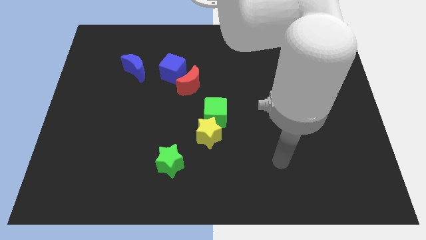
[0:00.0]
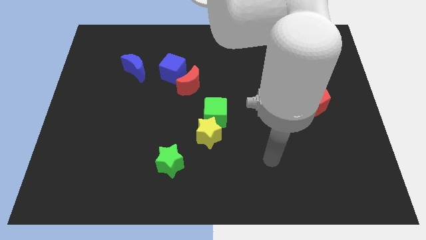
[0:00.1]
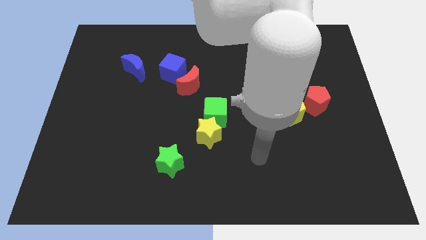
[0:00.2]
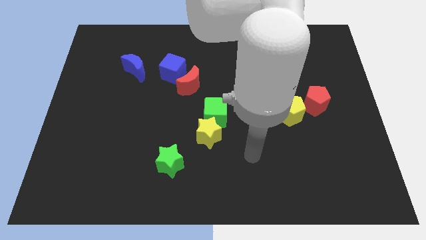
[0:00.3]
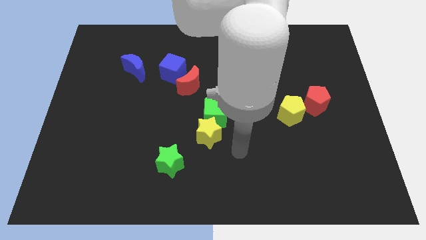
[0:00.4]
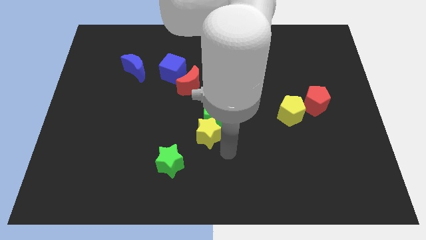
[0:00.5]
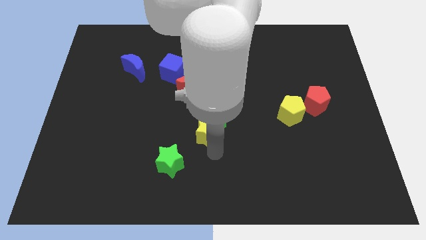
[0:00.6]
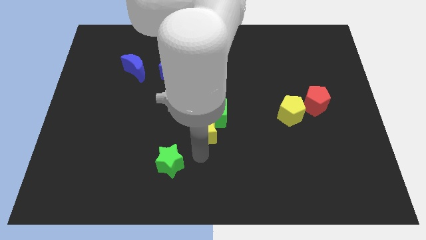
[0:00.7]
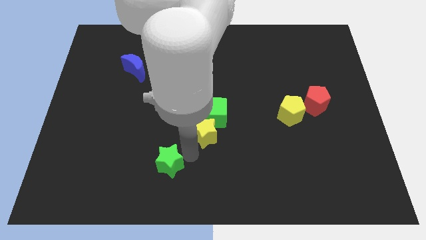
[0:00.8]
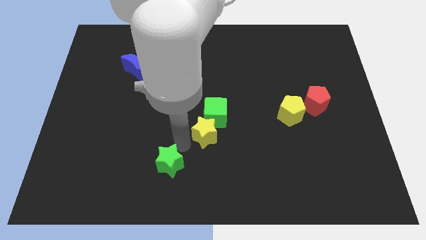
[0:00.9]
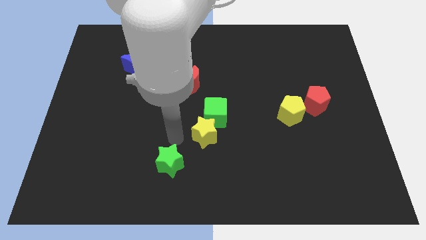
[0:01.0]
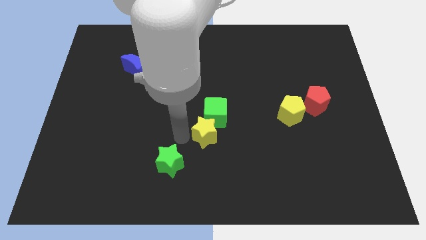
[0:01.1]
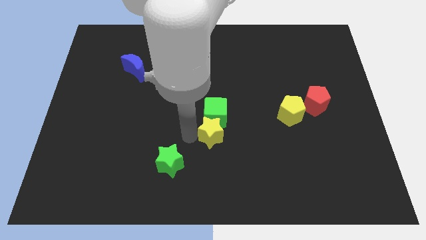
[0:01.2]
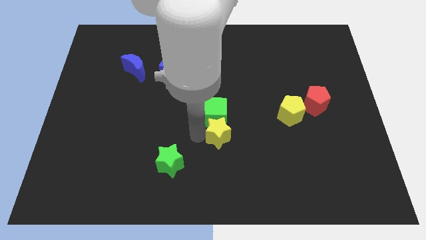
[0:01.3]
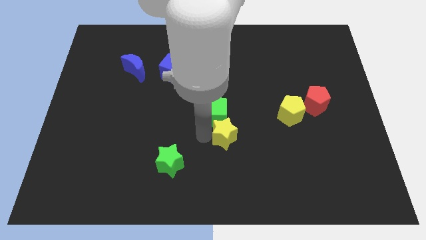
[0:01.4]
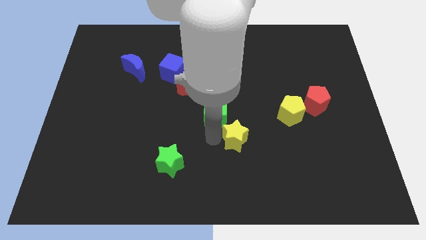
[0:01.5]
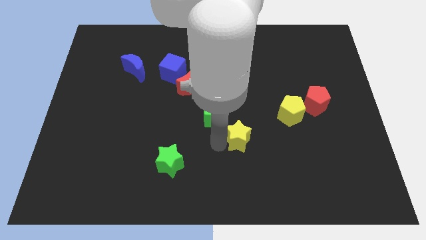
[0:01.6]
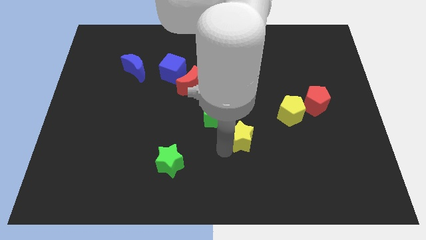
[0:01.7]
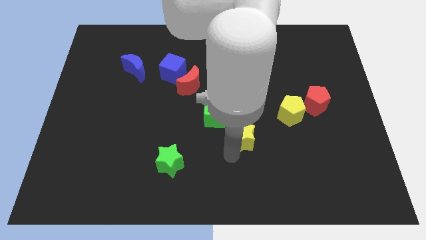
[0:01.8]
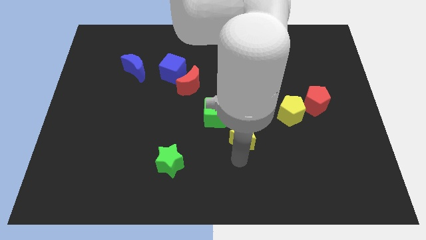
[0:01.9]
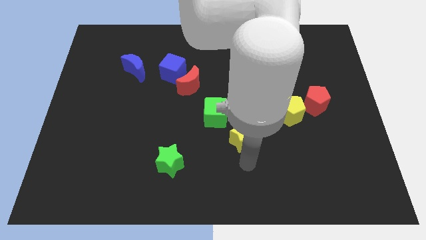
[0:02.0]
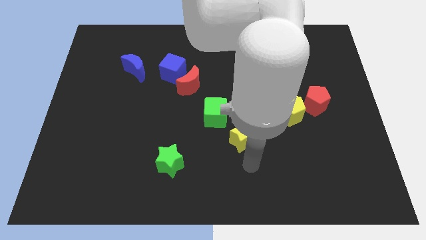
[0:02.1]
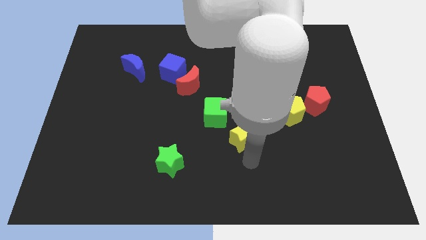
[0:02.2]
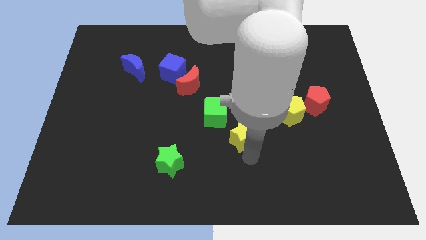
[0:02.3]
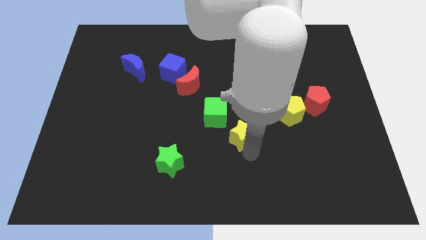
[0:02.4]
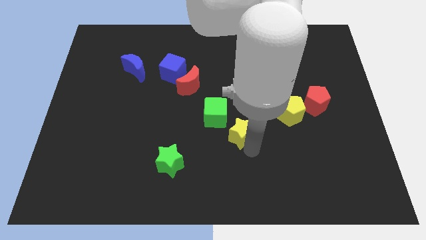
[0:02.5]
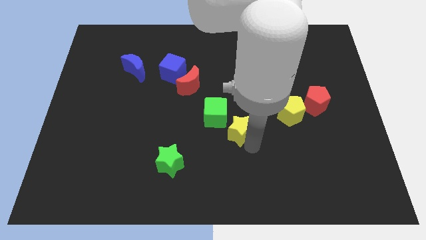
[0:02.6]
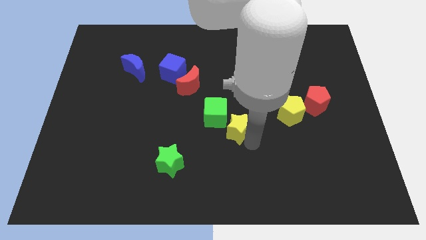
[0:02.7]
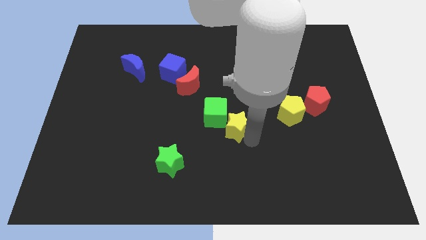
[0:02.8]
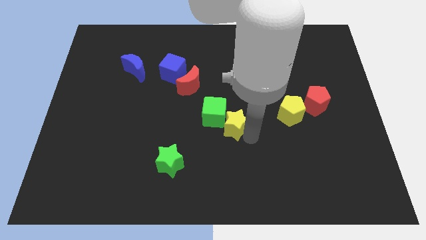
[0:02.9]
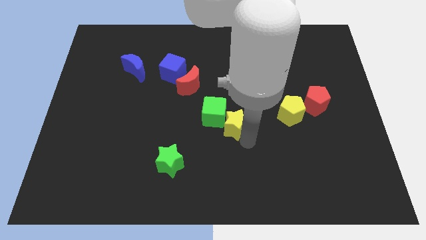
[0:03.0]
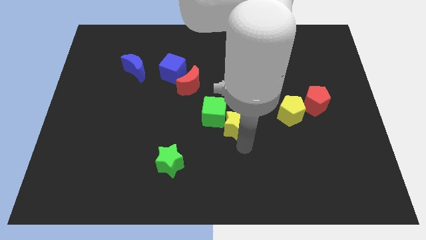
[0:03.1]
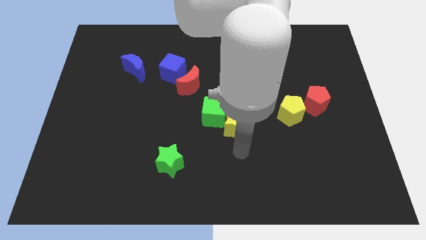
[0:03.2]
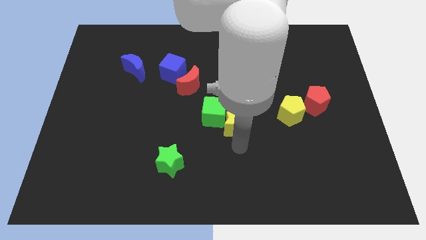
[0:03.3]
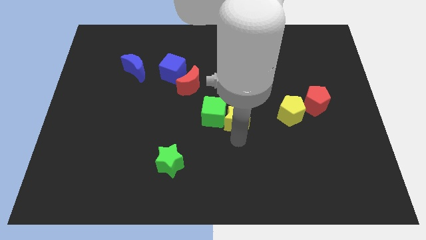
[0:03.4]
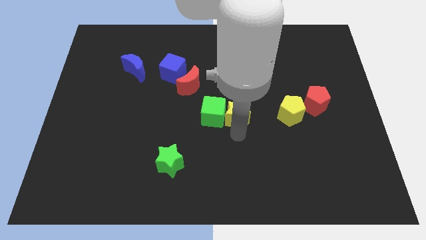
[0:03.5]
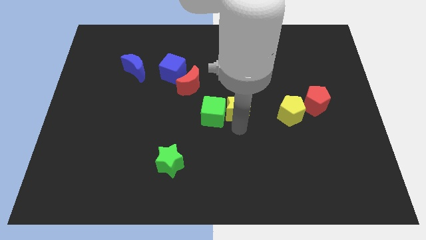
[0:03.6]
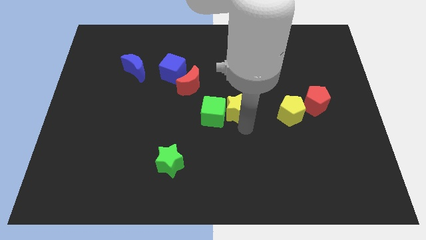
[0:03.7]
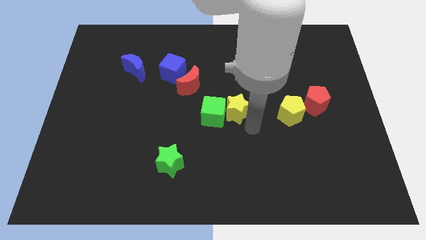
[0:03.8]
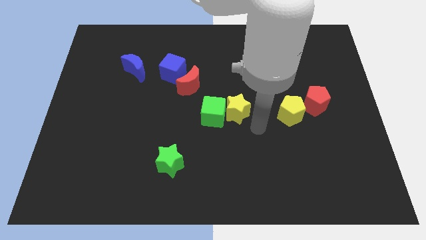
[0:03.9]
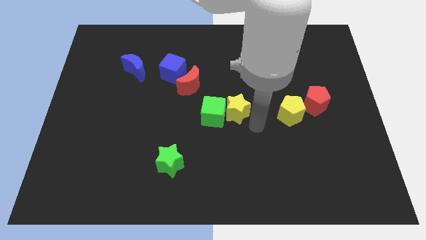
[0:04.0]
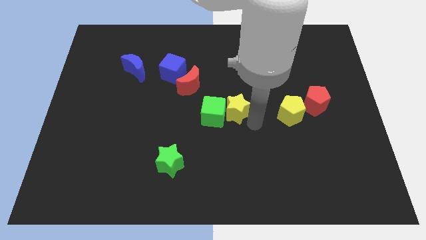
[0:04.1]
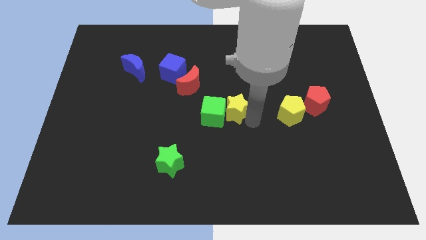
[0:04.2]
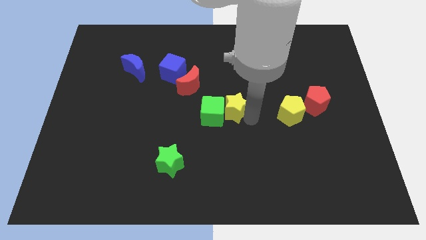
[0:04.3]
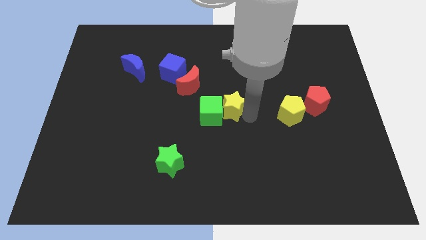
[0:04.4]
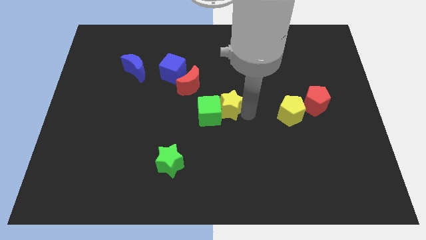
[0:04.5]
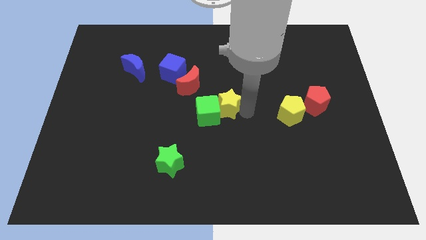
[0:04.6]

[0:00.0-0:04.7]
slightly push the yellow star upwards

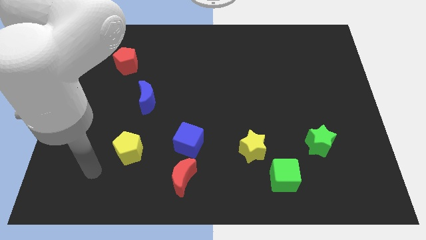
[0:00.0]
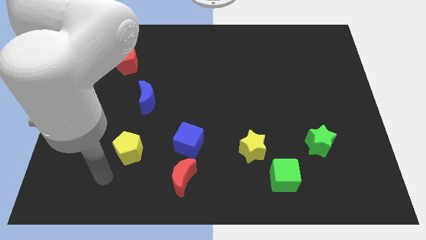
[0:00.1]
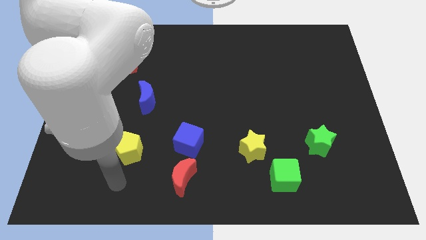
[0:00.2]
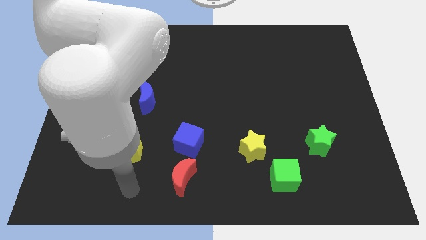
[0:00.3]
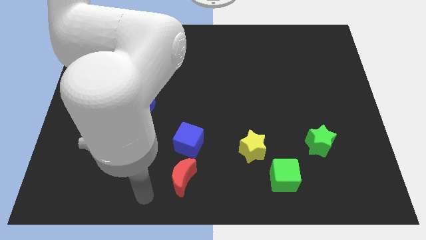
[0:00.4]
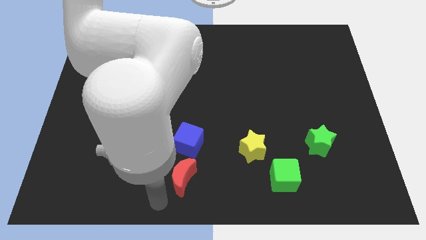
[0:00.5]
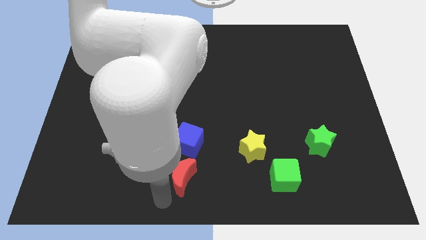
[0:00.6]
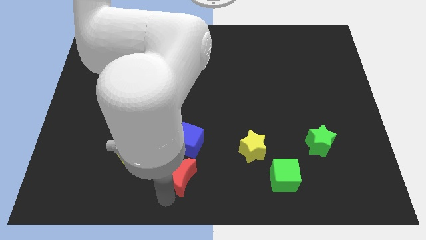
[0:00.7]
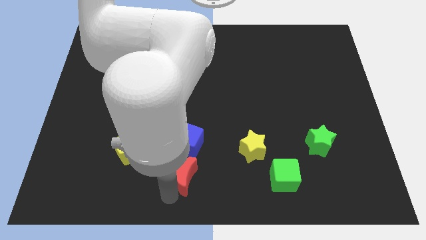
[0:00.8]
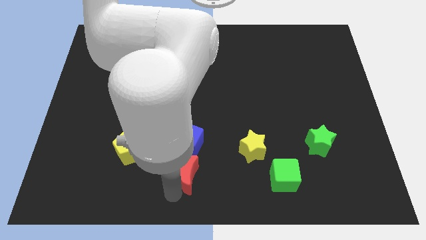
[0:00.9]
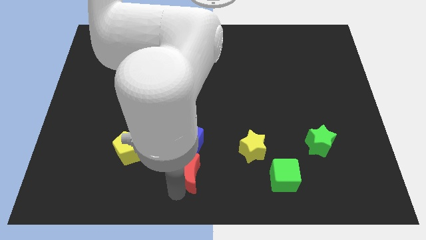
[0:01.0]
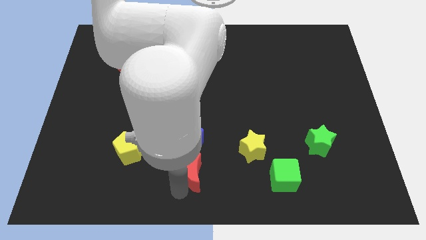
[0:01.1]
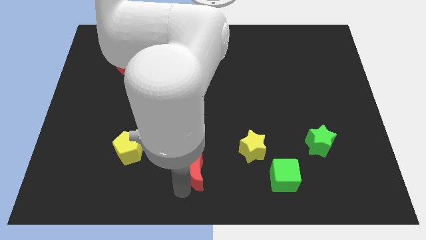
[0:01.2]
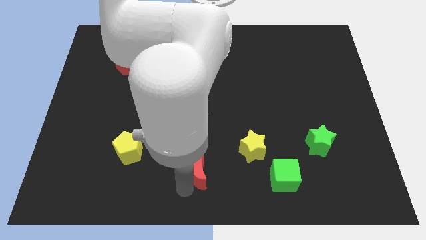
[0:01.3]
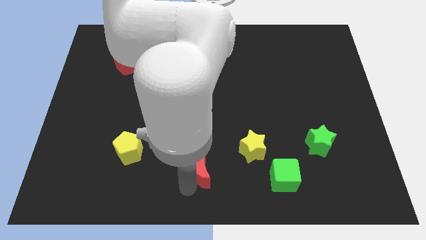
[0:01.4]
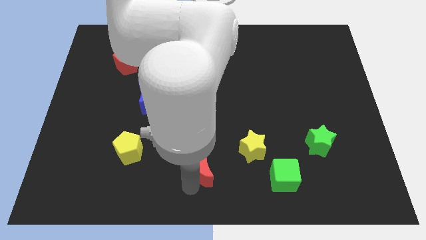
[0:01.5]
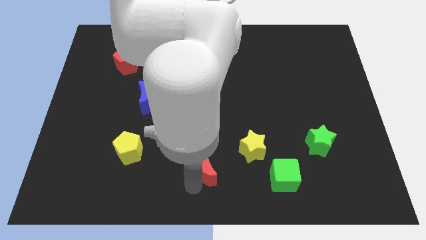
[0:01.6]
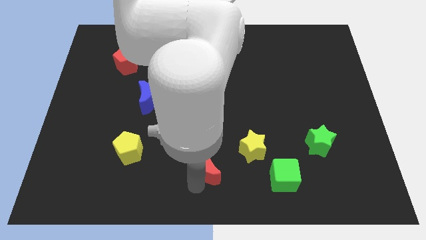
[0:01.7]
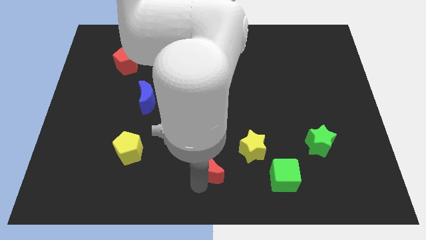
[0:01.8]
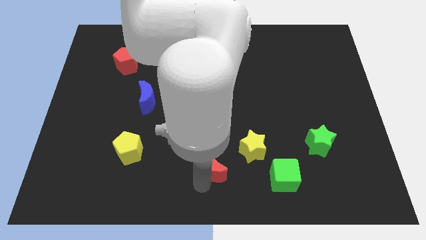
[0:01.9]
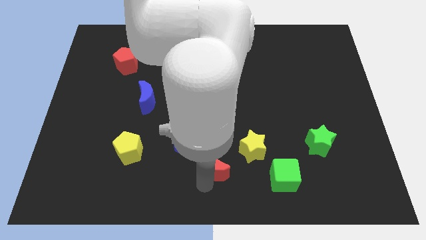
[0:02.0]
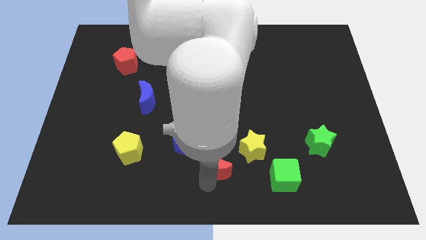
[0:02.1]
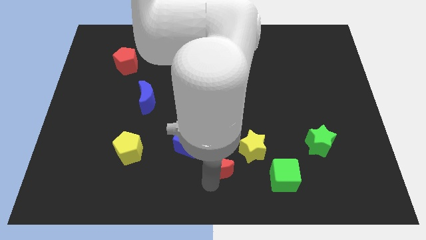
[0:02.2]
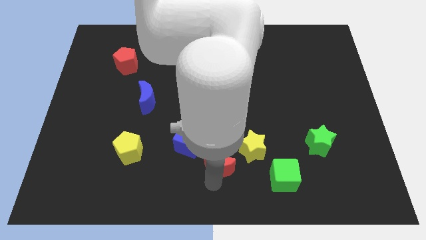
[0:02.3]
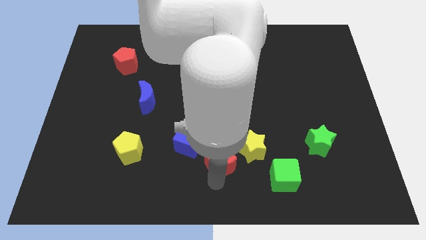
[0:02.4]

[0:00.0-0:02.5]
slightly push the red moon diagonally up and to the right

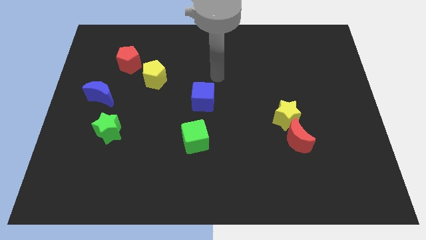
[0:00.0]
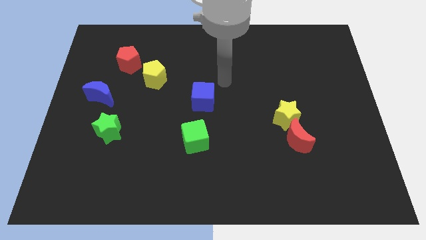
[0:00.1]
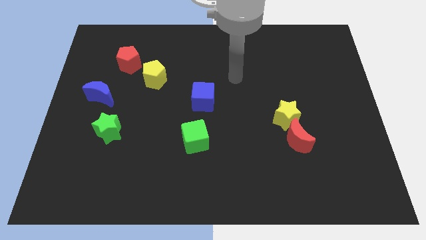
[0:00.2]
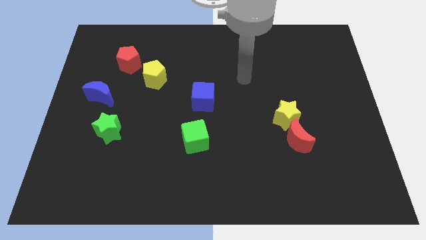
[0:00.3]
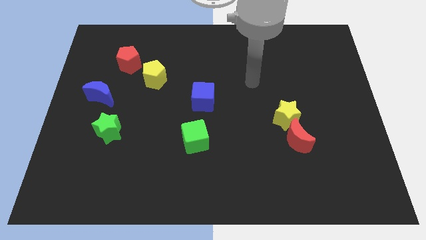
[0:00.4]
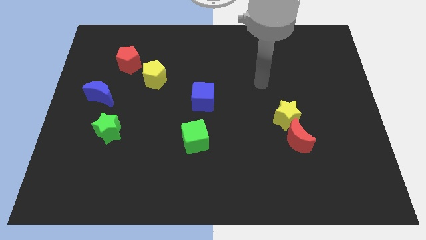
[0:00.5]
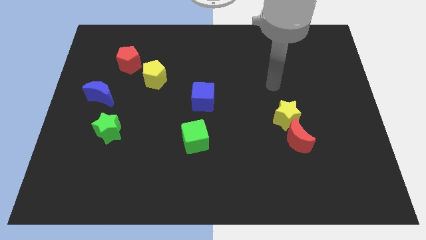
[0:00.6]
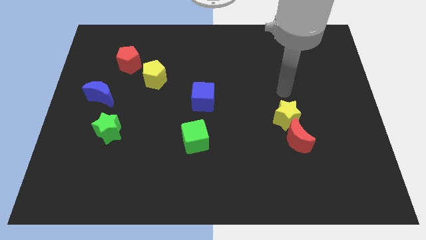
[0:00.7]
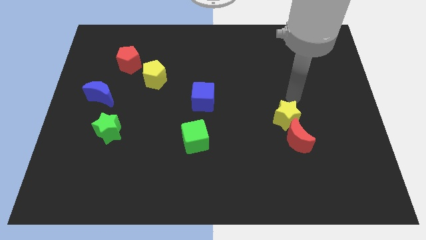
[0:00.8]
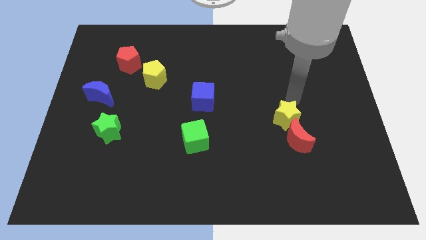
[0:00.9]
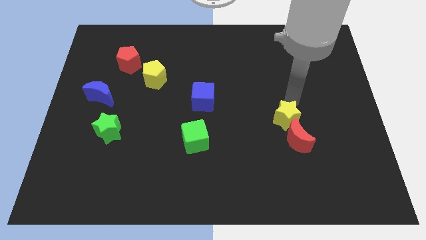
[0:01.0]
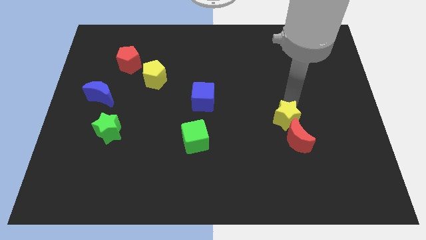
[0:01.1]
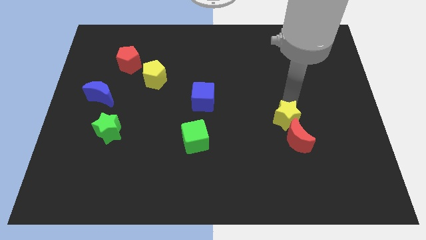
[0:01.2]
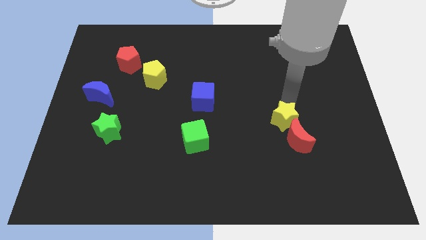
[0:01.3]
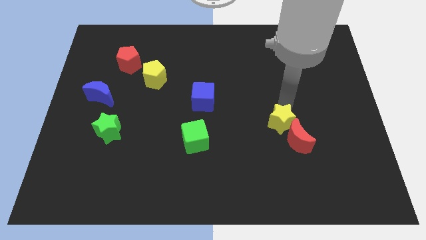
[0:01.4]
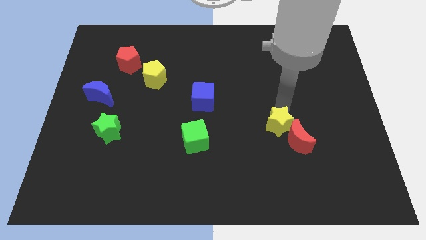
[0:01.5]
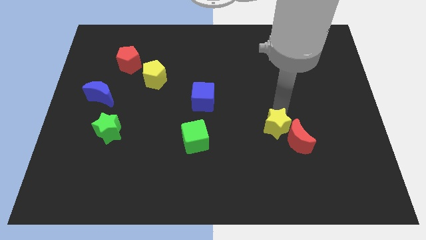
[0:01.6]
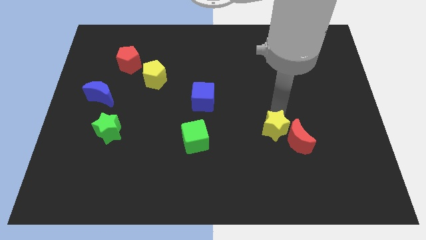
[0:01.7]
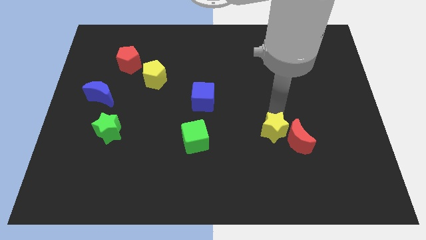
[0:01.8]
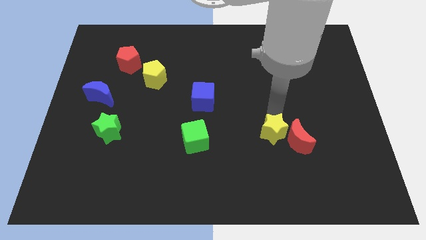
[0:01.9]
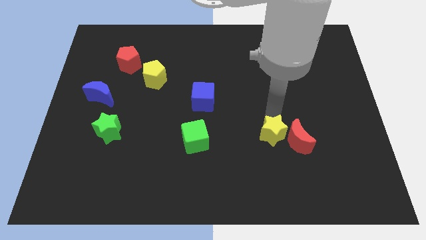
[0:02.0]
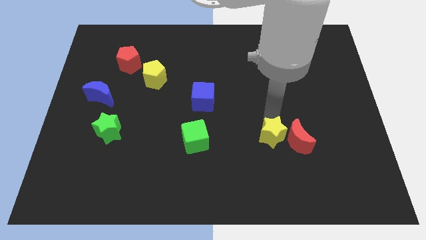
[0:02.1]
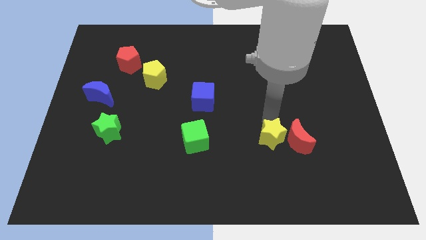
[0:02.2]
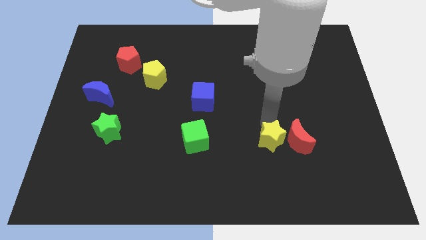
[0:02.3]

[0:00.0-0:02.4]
slightly move the yellow star diagonally downwards and left
